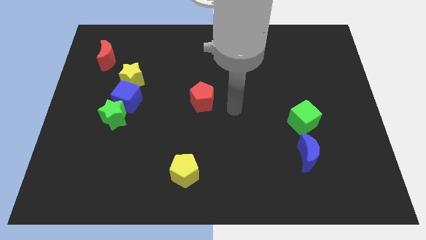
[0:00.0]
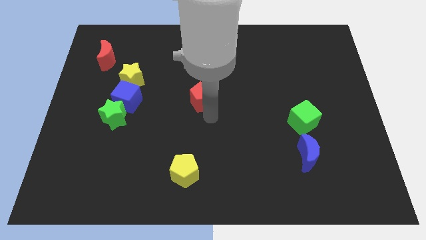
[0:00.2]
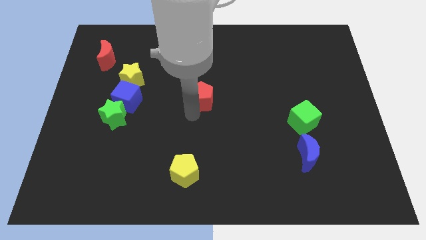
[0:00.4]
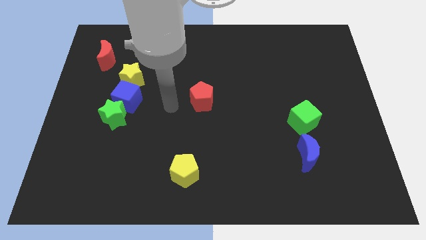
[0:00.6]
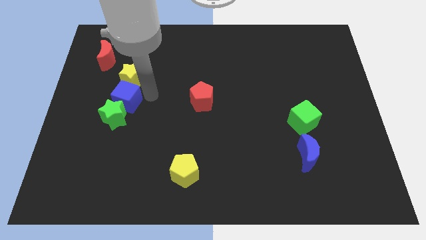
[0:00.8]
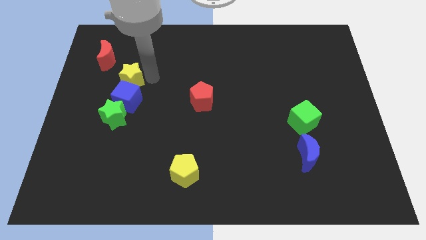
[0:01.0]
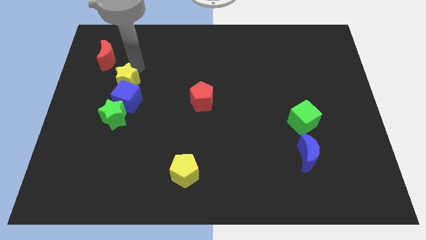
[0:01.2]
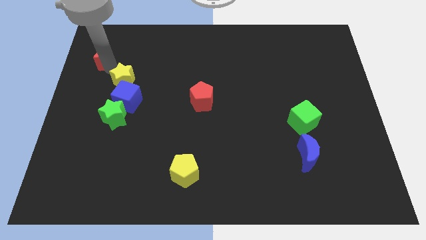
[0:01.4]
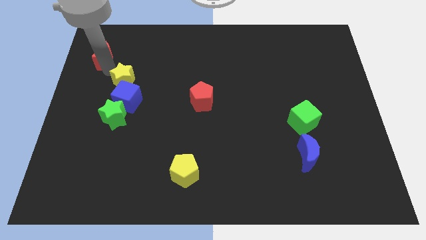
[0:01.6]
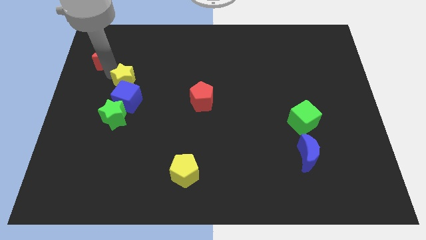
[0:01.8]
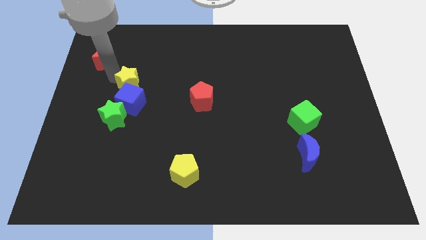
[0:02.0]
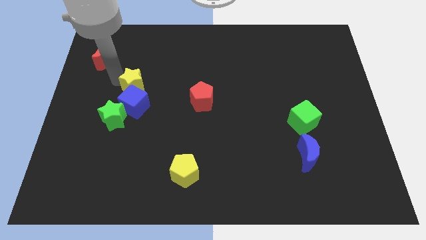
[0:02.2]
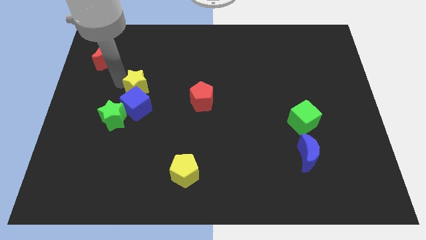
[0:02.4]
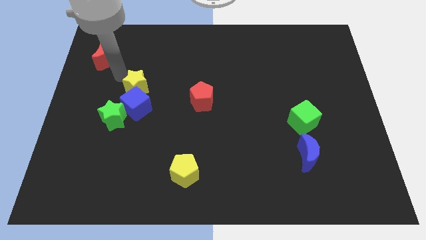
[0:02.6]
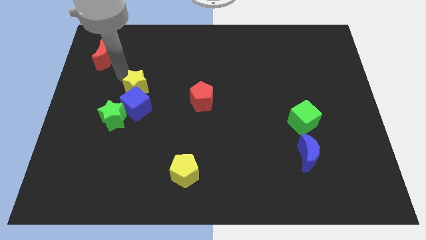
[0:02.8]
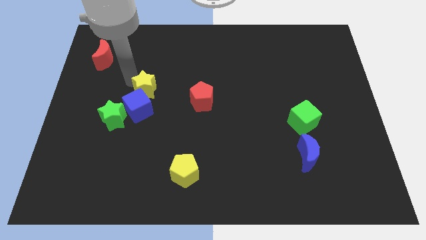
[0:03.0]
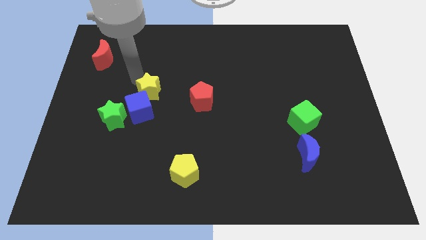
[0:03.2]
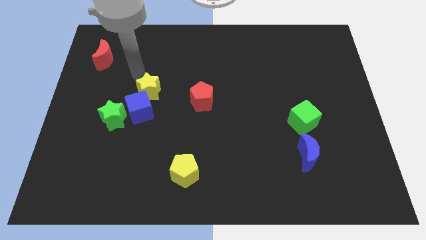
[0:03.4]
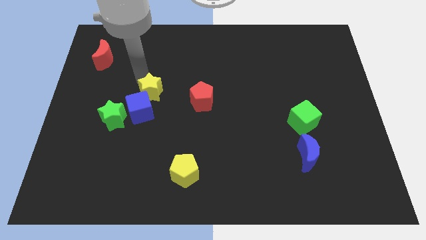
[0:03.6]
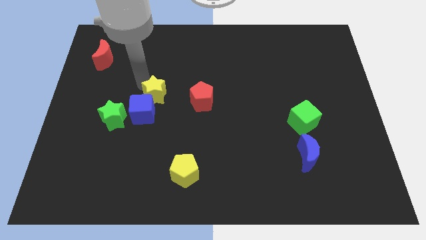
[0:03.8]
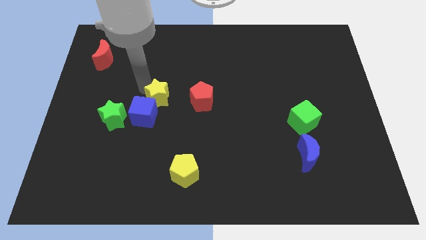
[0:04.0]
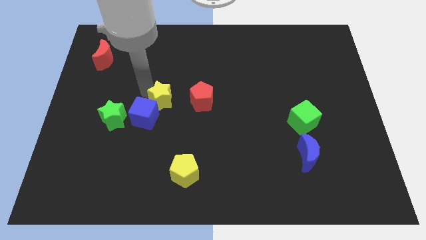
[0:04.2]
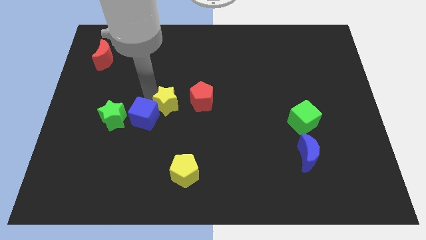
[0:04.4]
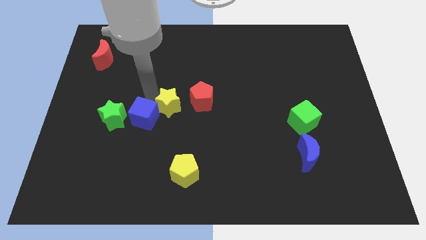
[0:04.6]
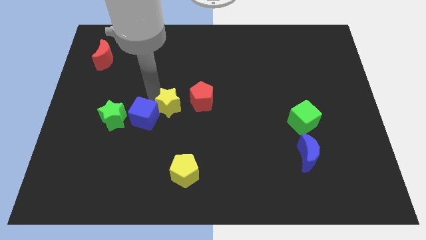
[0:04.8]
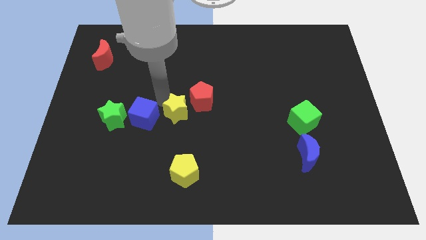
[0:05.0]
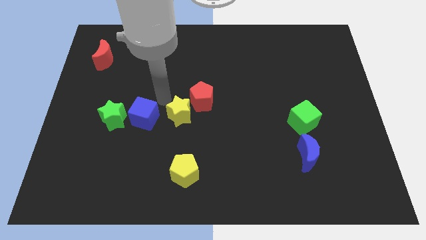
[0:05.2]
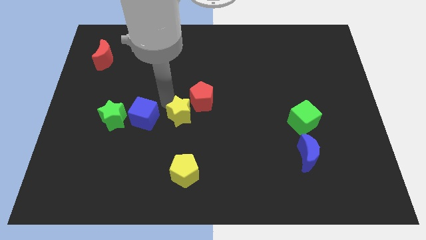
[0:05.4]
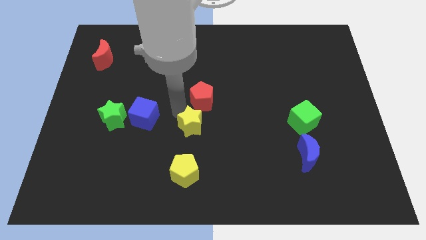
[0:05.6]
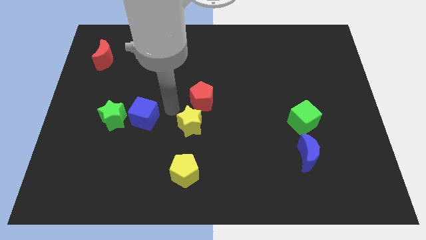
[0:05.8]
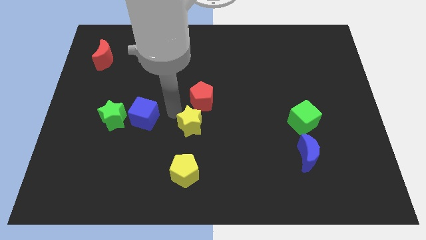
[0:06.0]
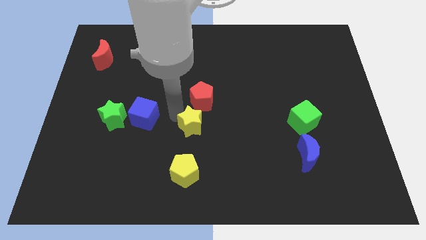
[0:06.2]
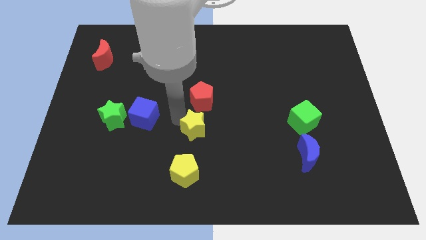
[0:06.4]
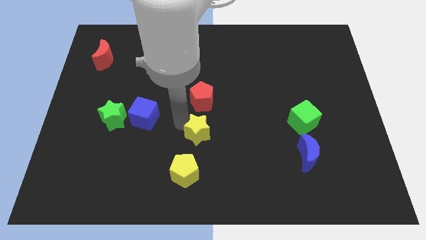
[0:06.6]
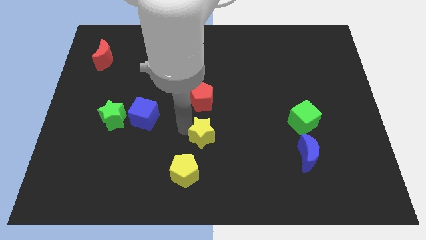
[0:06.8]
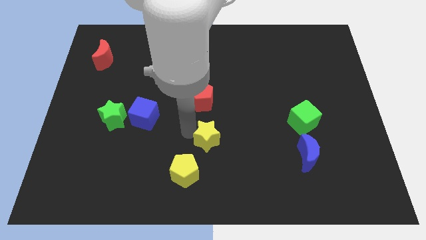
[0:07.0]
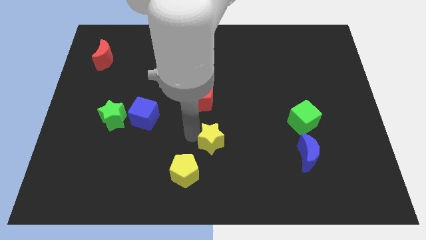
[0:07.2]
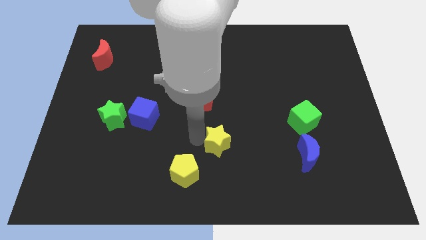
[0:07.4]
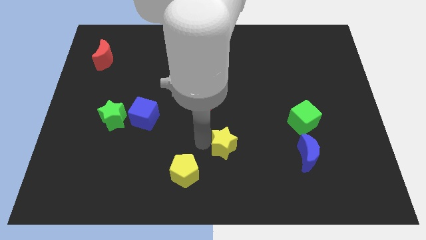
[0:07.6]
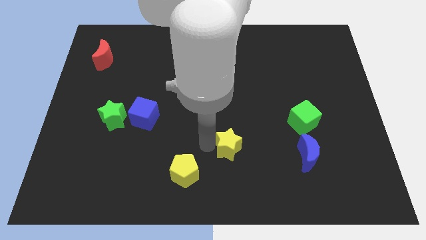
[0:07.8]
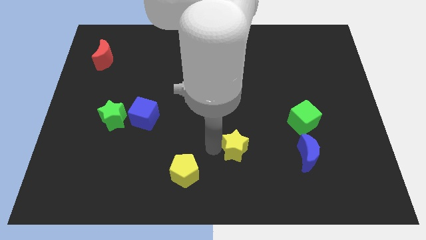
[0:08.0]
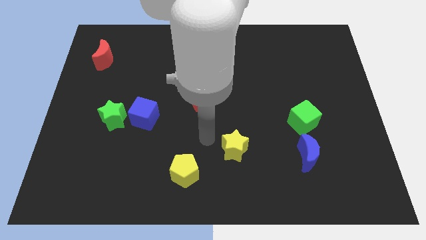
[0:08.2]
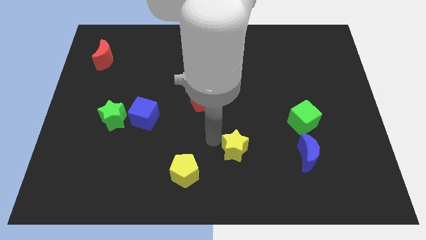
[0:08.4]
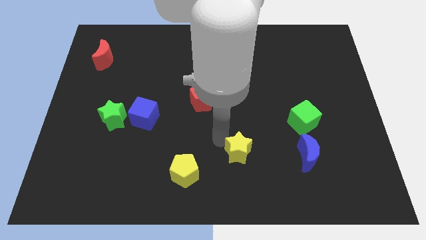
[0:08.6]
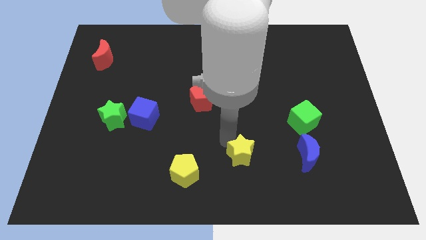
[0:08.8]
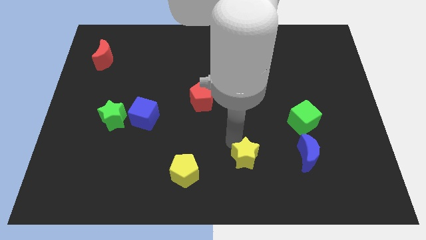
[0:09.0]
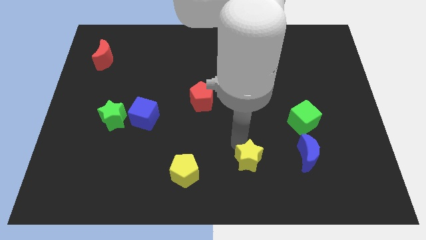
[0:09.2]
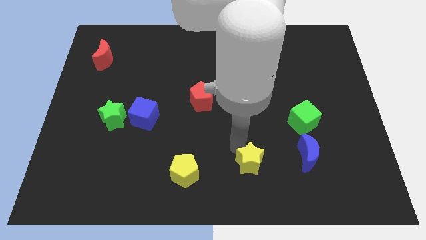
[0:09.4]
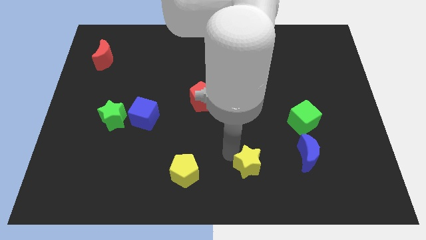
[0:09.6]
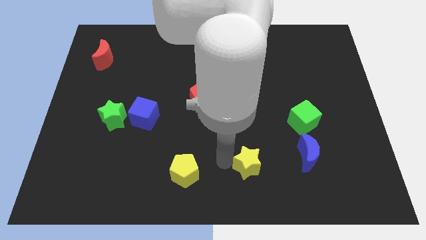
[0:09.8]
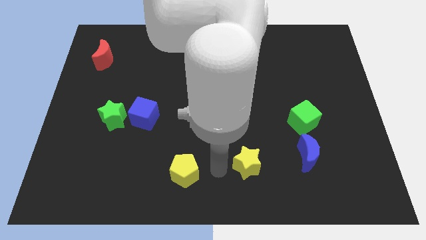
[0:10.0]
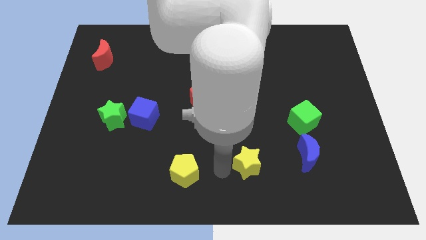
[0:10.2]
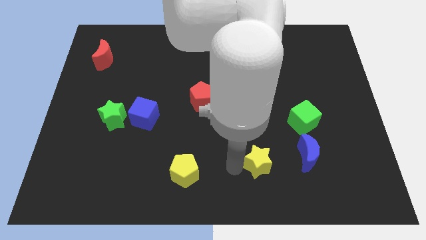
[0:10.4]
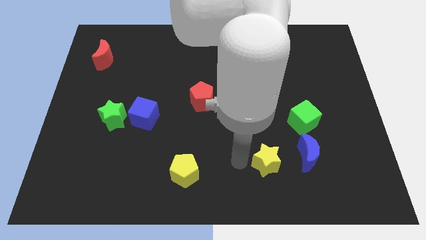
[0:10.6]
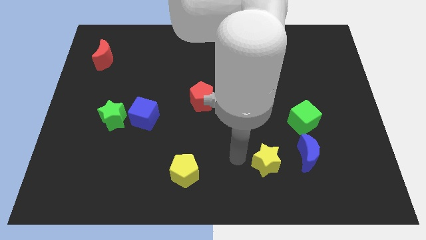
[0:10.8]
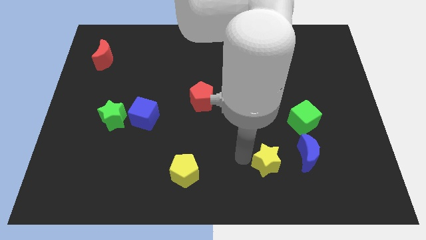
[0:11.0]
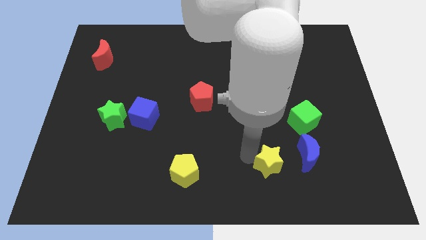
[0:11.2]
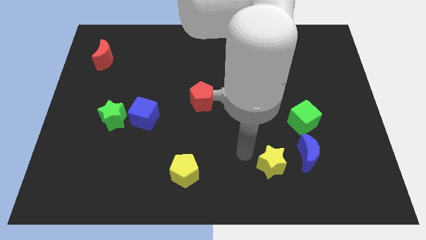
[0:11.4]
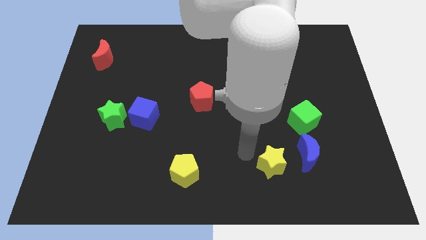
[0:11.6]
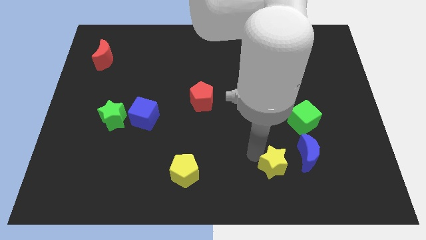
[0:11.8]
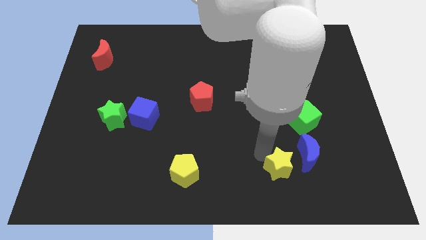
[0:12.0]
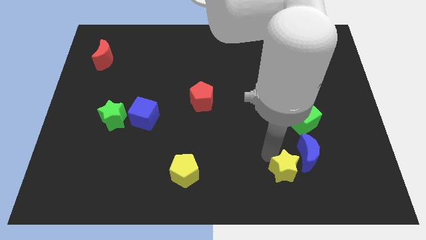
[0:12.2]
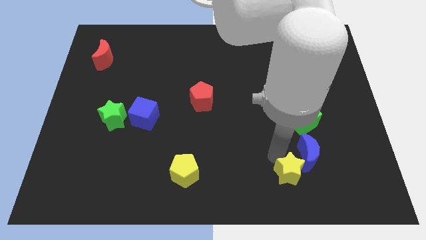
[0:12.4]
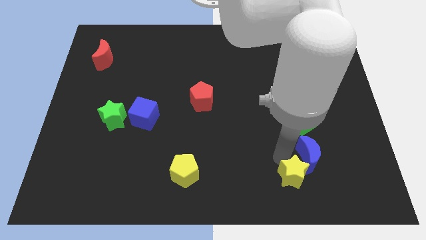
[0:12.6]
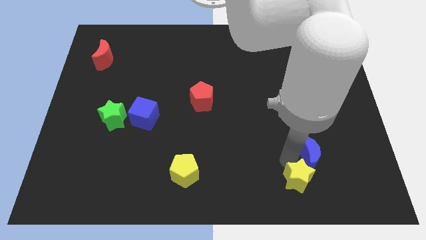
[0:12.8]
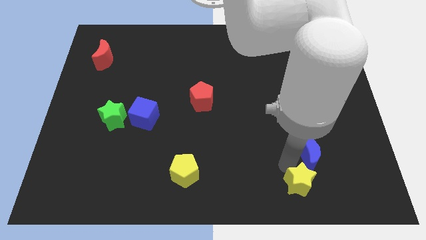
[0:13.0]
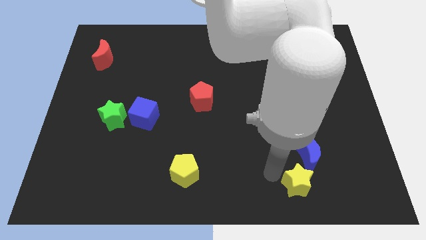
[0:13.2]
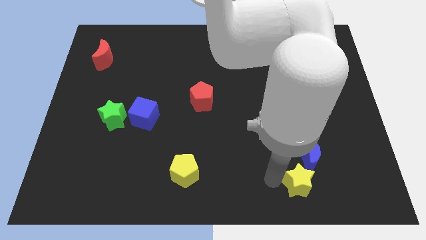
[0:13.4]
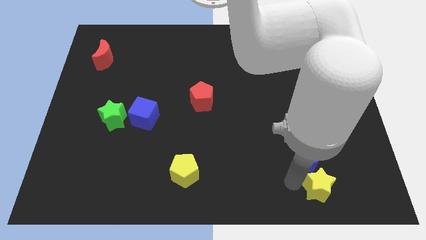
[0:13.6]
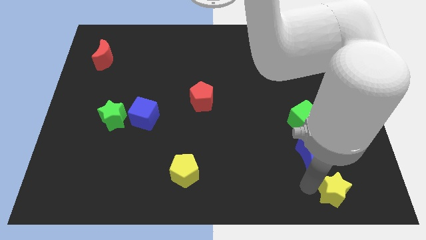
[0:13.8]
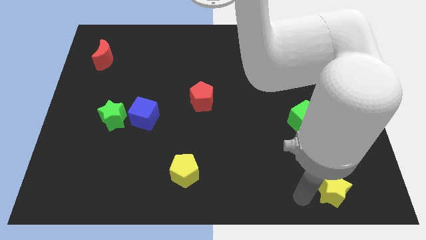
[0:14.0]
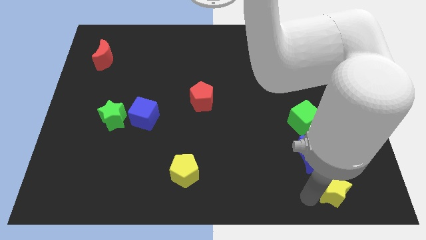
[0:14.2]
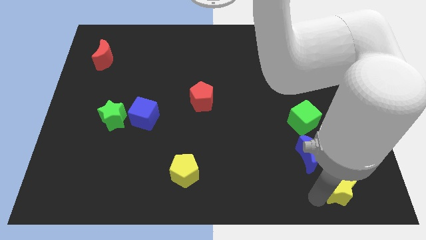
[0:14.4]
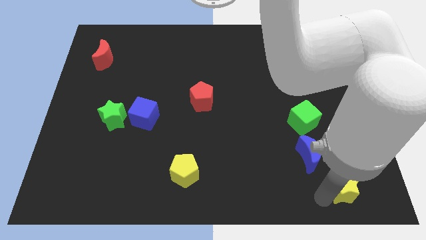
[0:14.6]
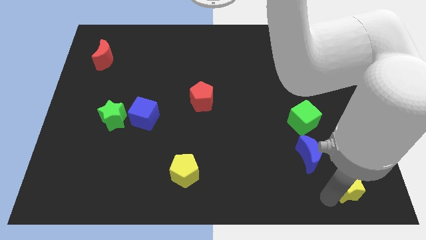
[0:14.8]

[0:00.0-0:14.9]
move the yellow star to the lower right corner
